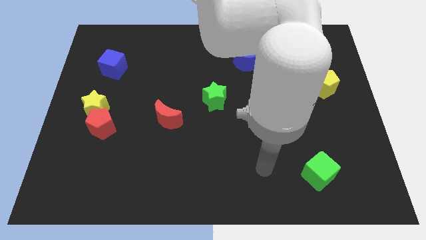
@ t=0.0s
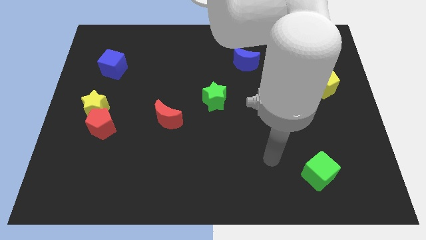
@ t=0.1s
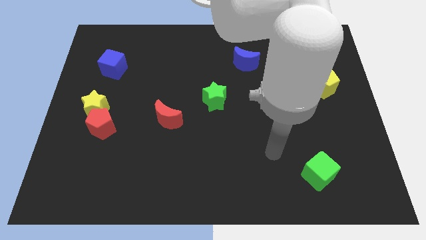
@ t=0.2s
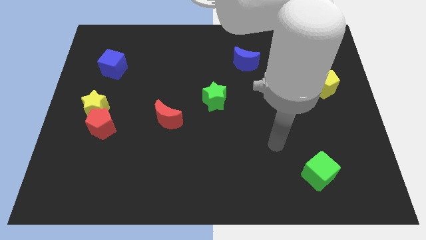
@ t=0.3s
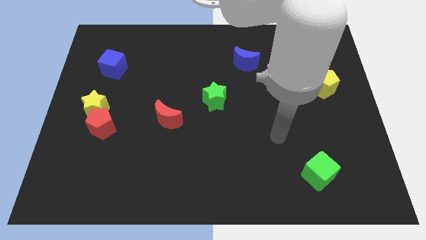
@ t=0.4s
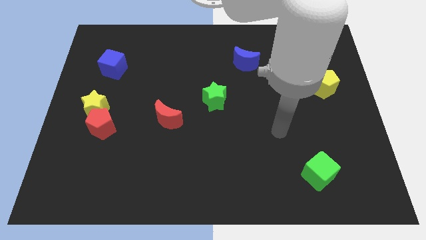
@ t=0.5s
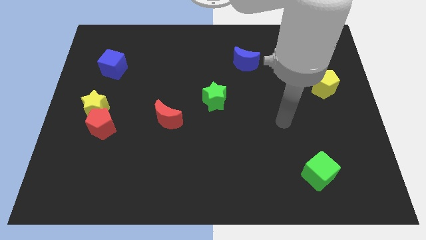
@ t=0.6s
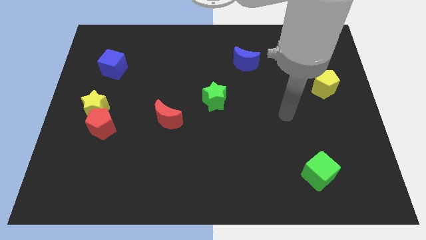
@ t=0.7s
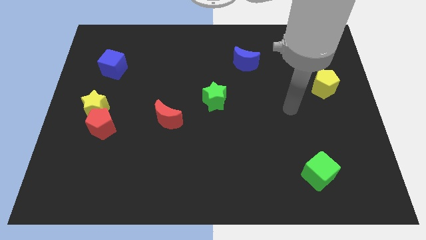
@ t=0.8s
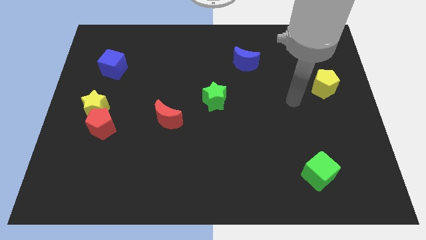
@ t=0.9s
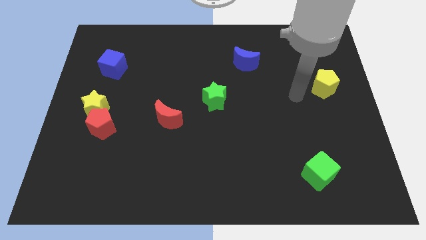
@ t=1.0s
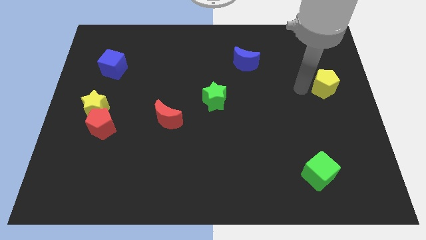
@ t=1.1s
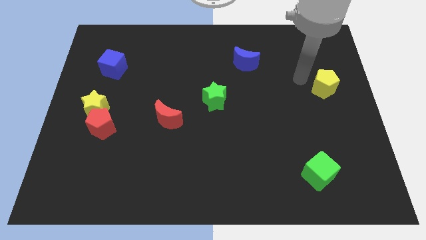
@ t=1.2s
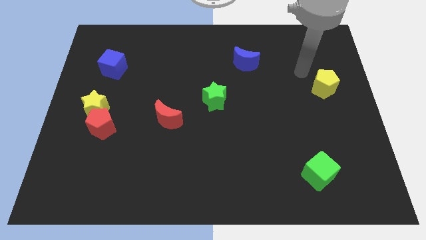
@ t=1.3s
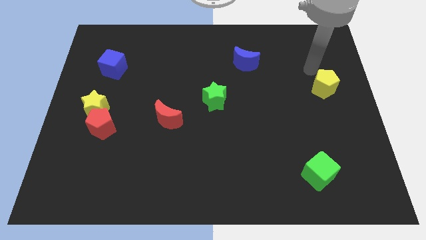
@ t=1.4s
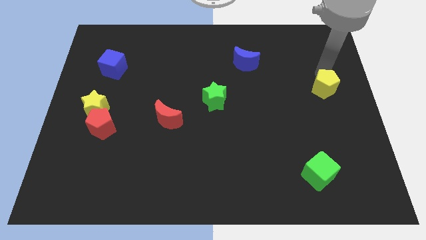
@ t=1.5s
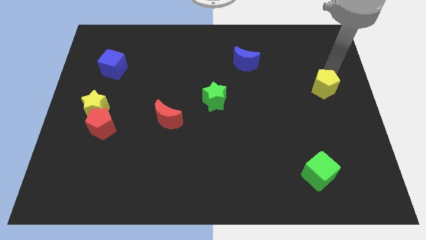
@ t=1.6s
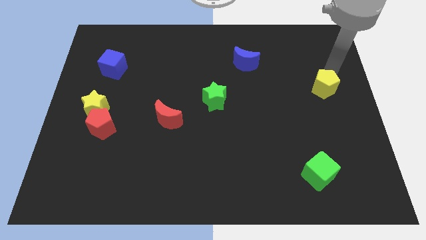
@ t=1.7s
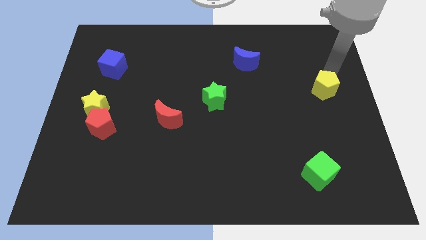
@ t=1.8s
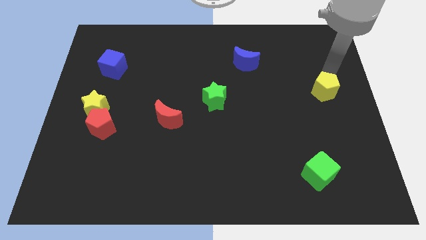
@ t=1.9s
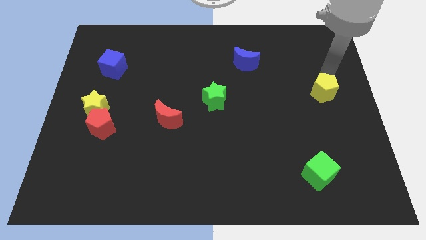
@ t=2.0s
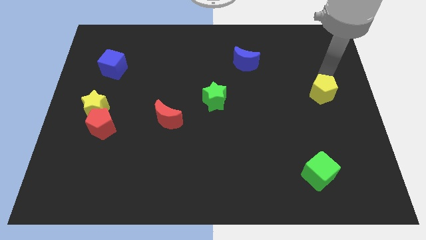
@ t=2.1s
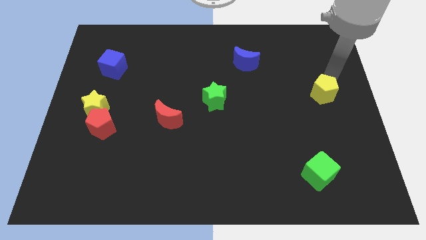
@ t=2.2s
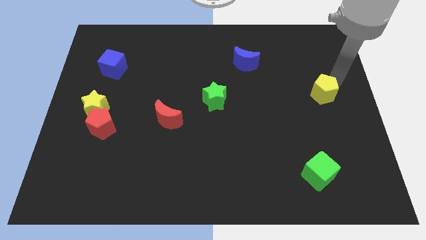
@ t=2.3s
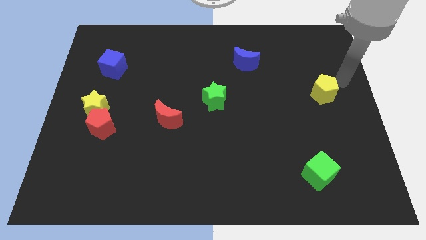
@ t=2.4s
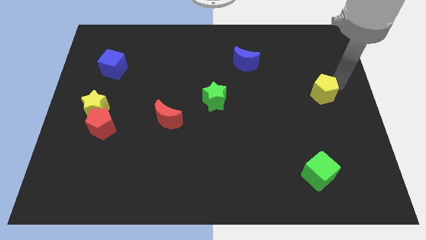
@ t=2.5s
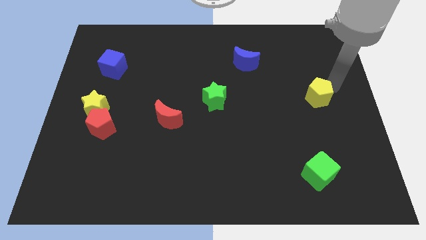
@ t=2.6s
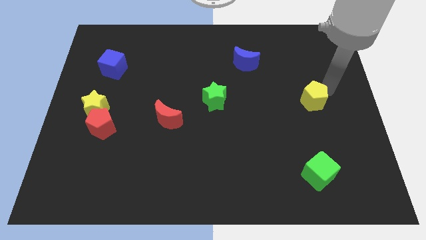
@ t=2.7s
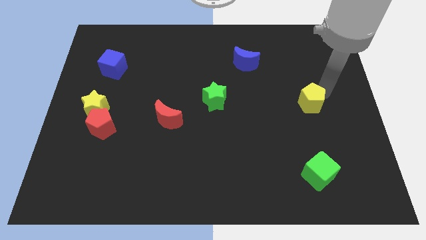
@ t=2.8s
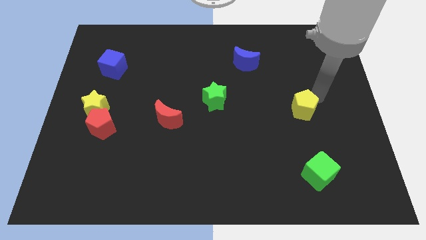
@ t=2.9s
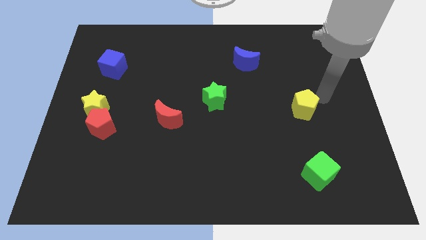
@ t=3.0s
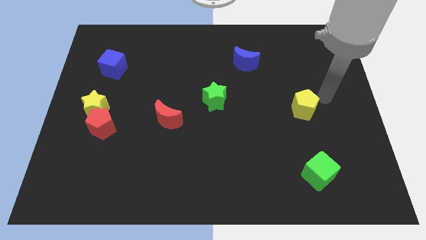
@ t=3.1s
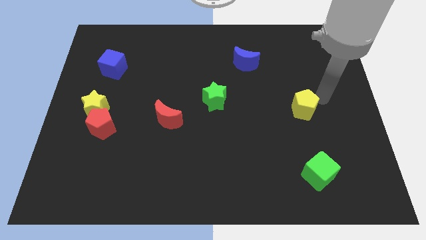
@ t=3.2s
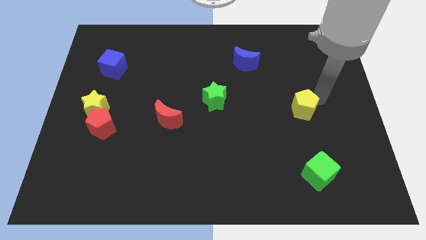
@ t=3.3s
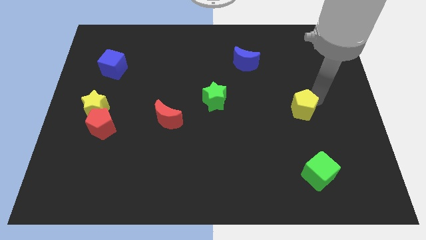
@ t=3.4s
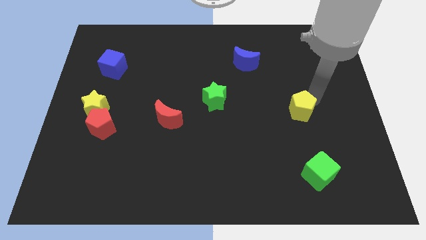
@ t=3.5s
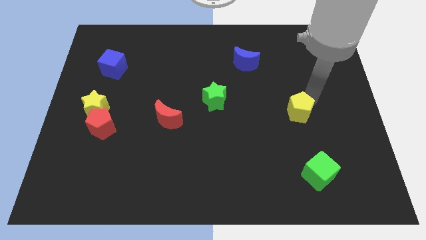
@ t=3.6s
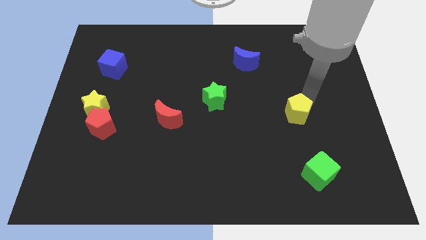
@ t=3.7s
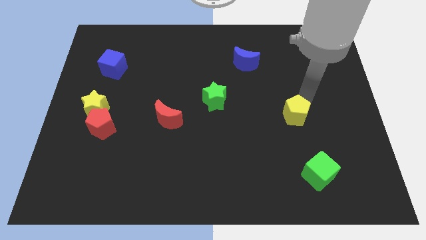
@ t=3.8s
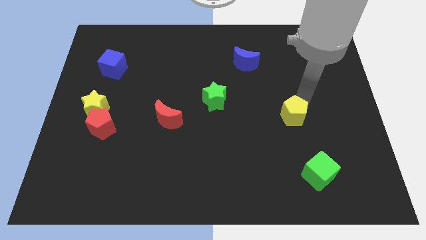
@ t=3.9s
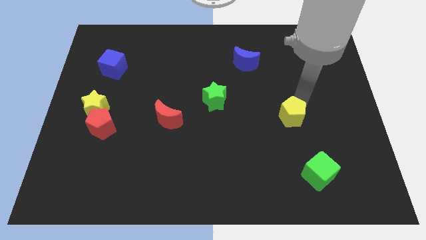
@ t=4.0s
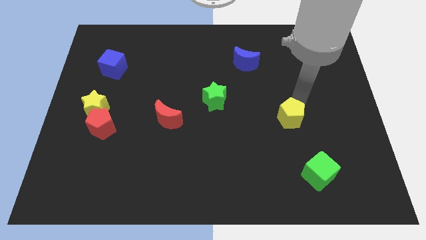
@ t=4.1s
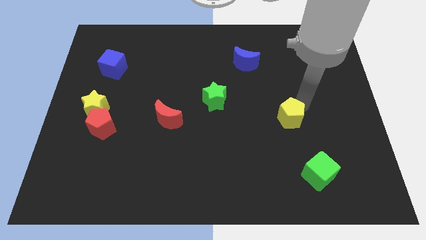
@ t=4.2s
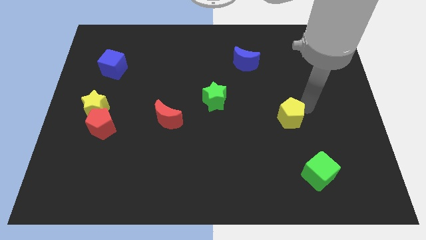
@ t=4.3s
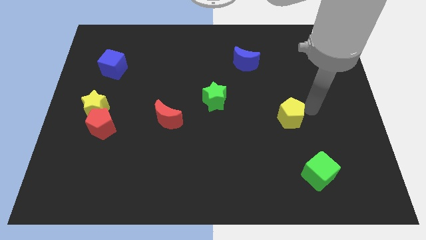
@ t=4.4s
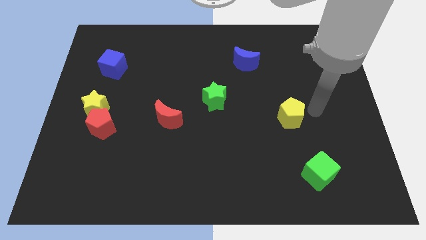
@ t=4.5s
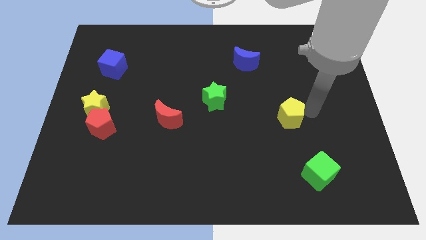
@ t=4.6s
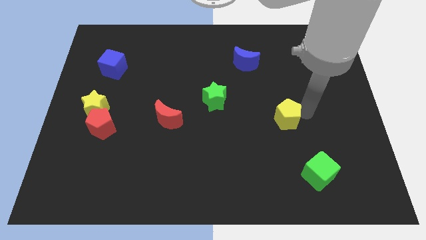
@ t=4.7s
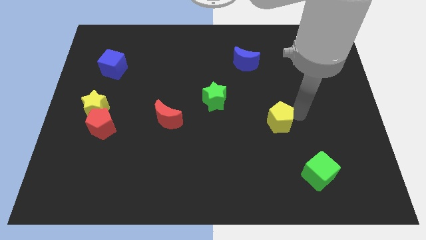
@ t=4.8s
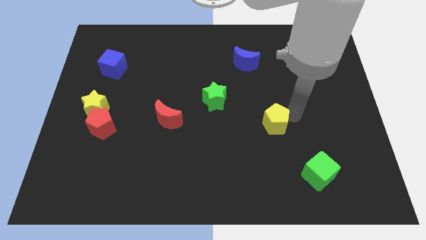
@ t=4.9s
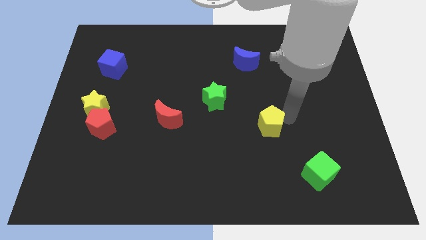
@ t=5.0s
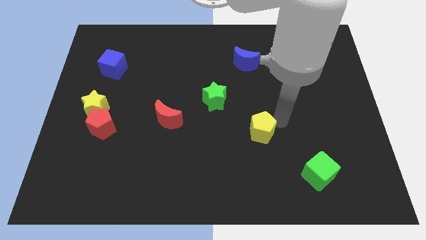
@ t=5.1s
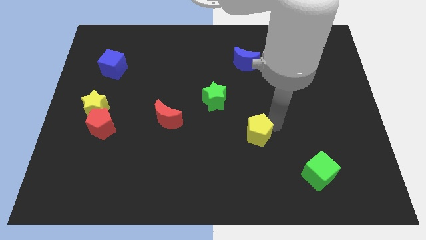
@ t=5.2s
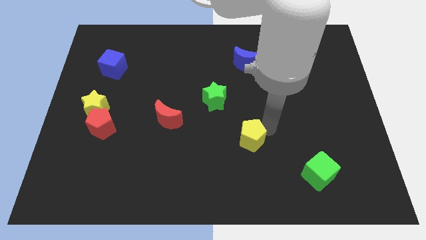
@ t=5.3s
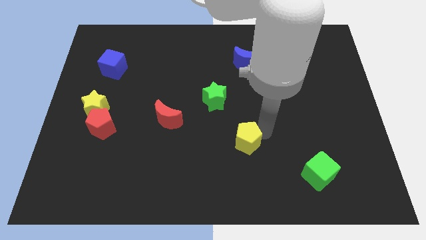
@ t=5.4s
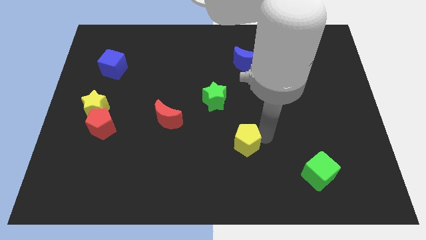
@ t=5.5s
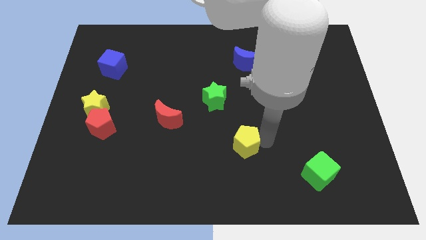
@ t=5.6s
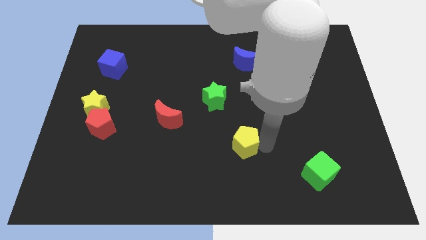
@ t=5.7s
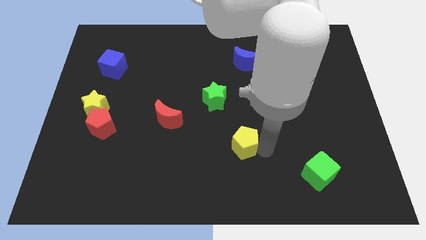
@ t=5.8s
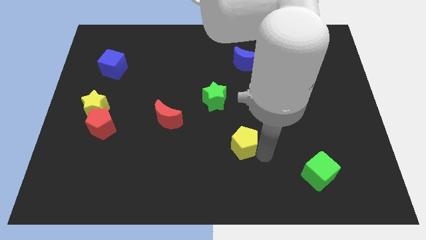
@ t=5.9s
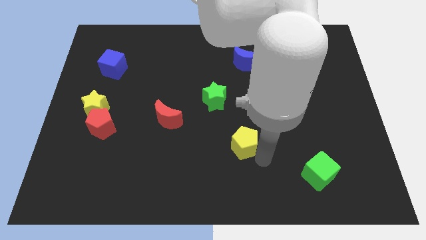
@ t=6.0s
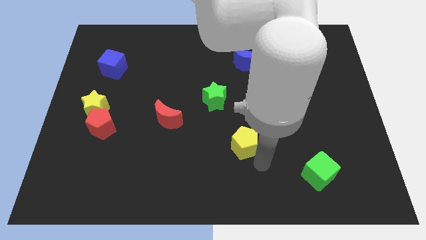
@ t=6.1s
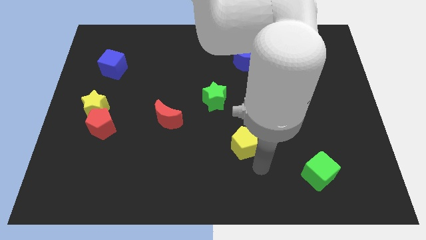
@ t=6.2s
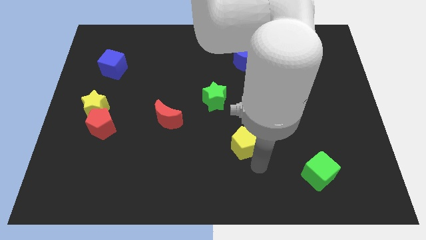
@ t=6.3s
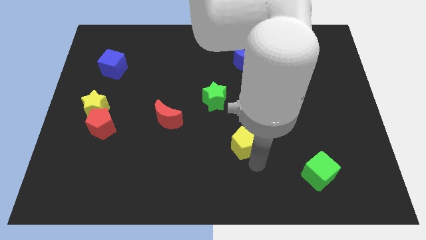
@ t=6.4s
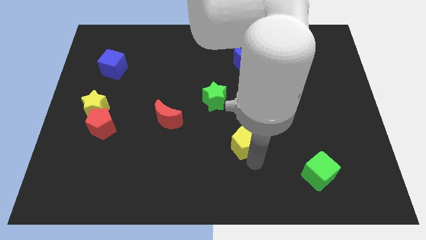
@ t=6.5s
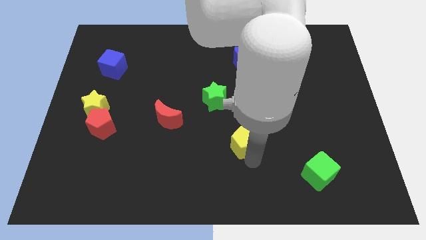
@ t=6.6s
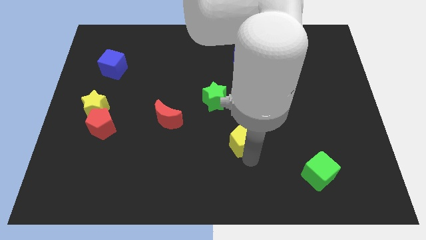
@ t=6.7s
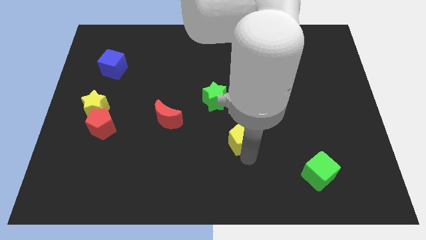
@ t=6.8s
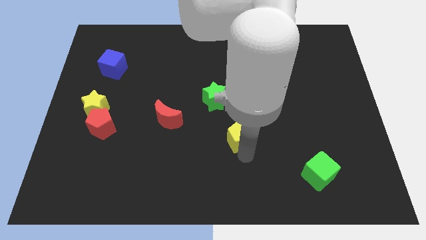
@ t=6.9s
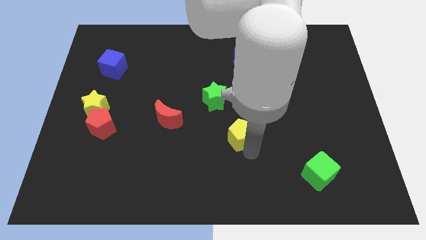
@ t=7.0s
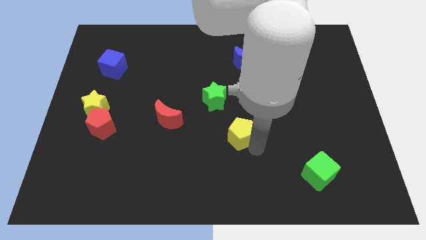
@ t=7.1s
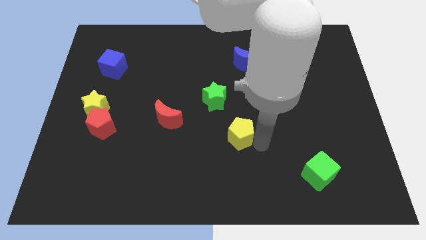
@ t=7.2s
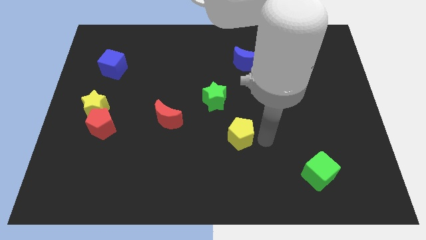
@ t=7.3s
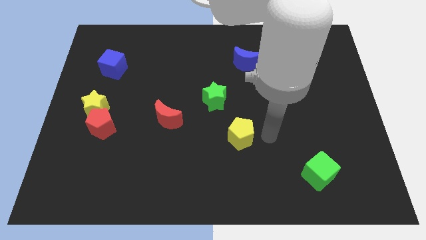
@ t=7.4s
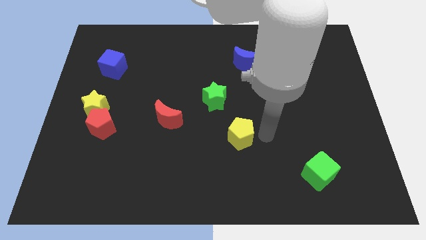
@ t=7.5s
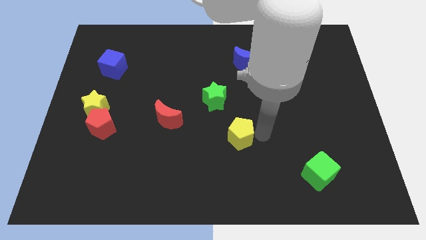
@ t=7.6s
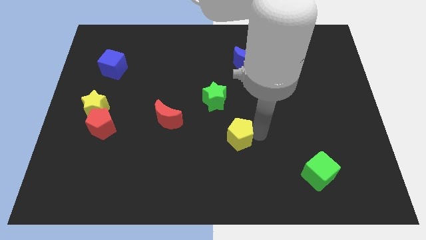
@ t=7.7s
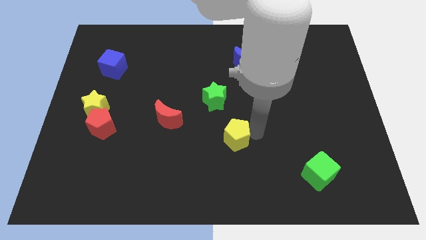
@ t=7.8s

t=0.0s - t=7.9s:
slide the yellow pentagon to the bottom of the green star

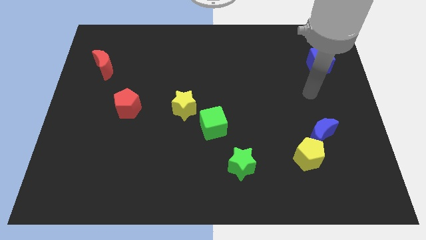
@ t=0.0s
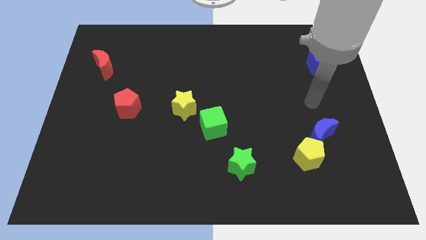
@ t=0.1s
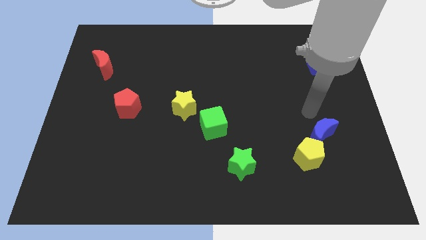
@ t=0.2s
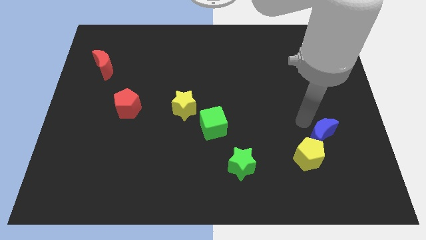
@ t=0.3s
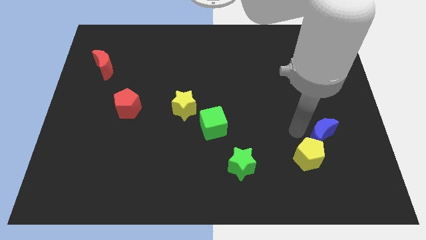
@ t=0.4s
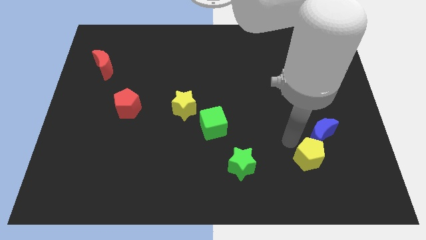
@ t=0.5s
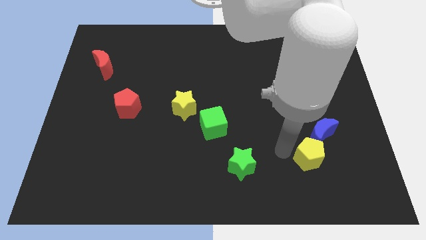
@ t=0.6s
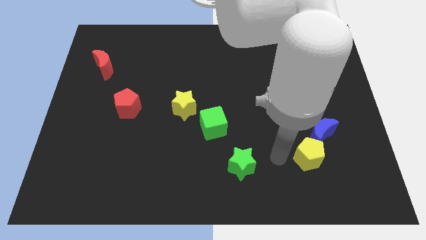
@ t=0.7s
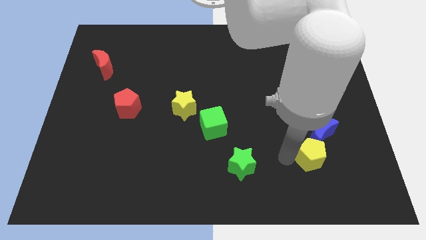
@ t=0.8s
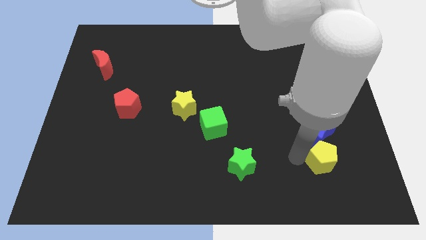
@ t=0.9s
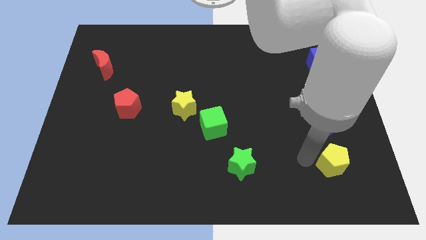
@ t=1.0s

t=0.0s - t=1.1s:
push the yellow pentagon to the bottom right of the blue moon
